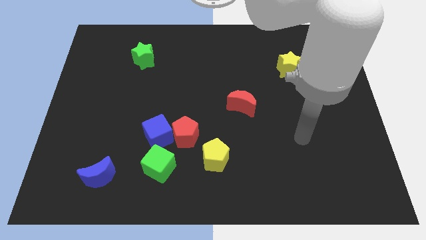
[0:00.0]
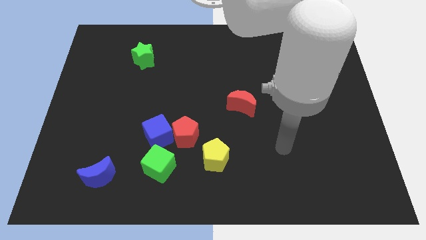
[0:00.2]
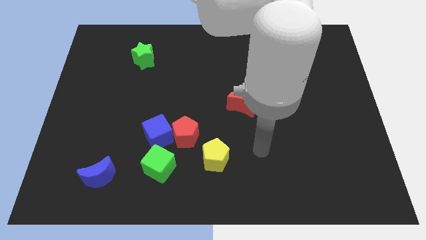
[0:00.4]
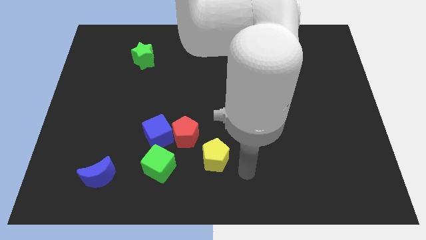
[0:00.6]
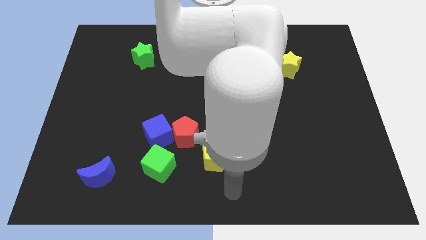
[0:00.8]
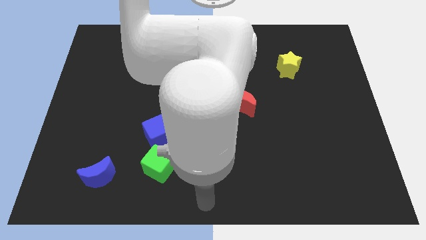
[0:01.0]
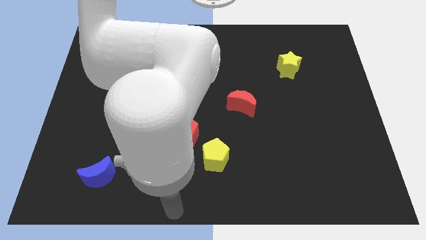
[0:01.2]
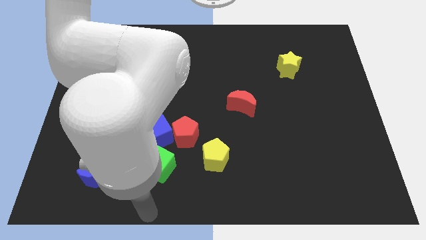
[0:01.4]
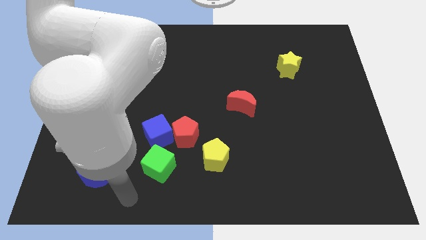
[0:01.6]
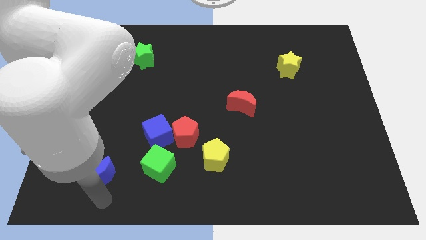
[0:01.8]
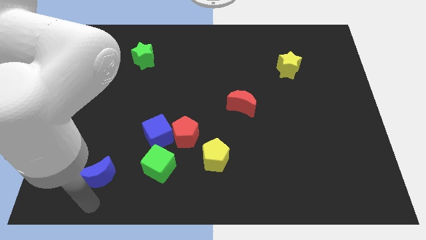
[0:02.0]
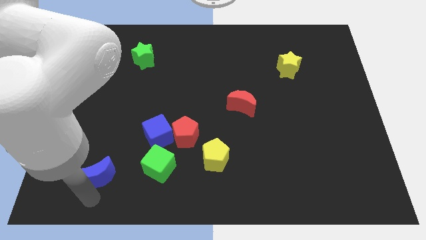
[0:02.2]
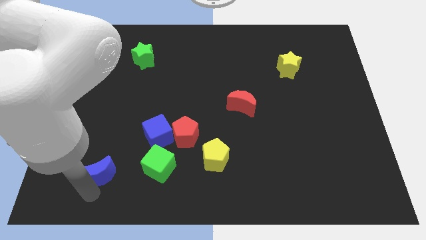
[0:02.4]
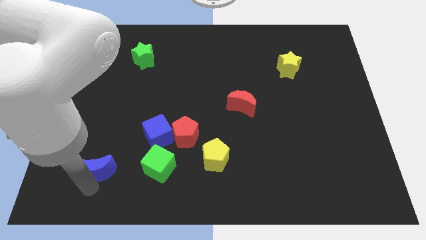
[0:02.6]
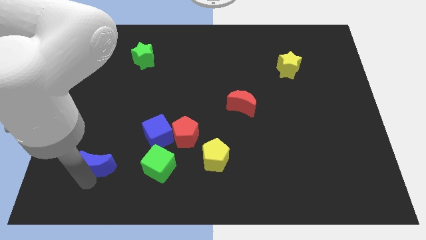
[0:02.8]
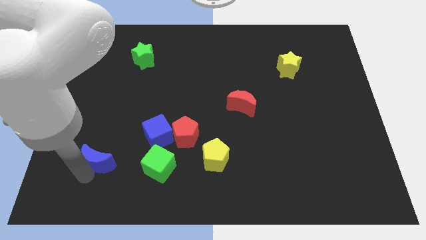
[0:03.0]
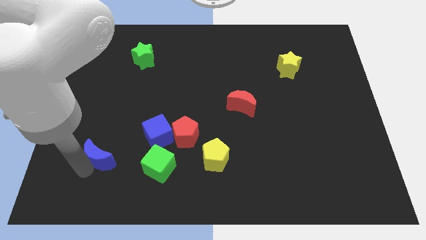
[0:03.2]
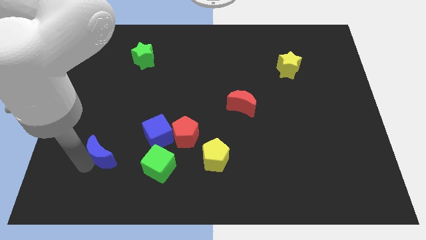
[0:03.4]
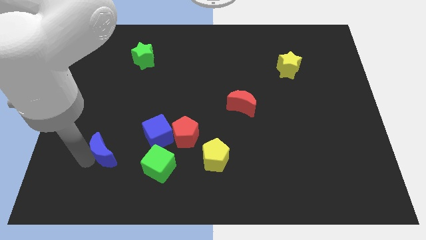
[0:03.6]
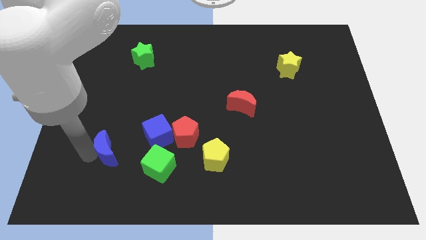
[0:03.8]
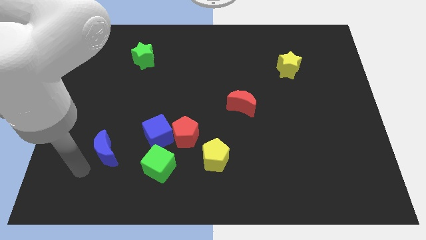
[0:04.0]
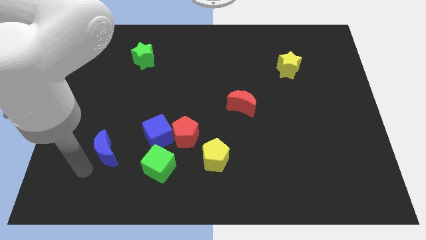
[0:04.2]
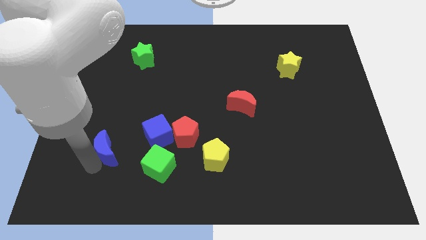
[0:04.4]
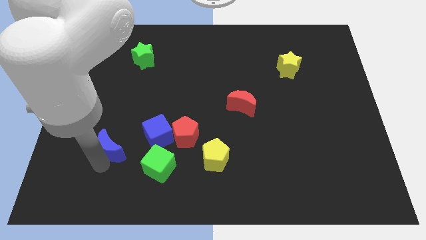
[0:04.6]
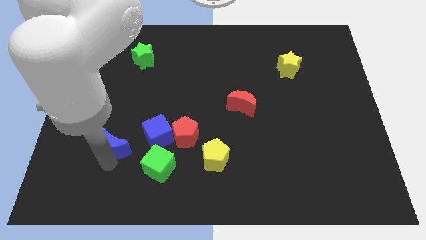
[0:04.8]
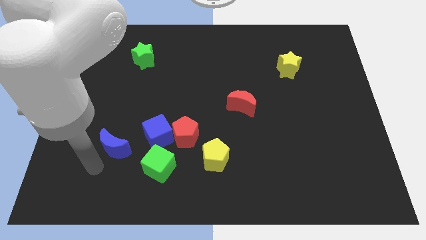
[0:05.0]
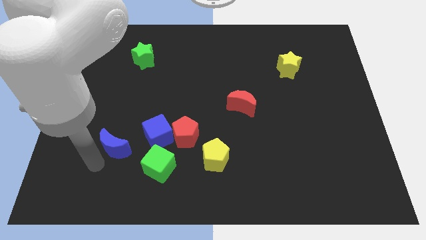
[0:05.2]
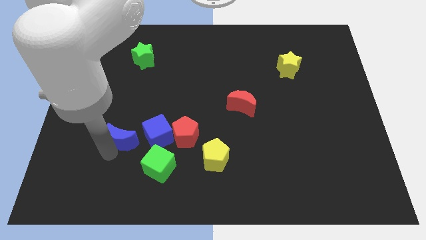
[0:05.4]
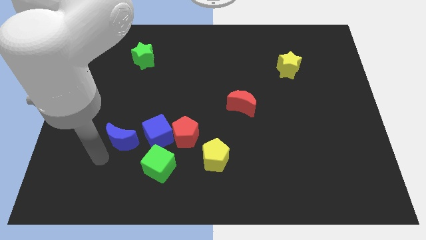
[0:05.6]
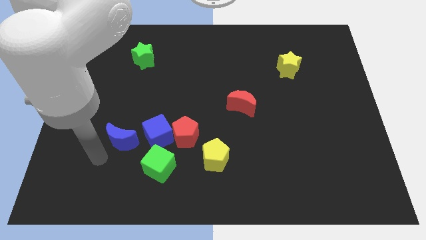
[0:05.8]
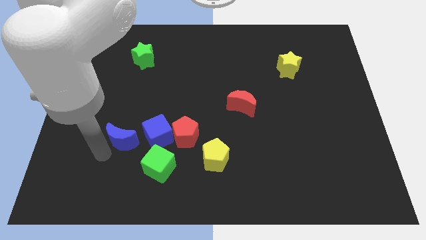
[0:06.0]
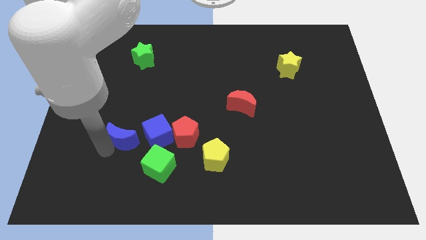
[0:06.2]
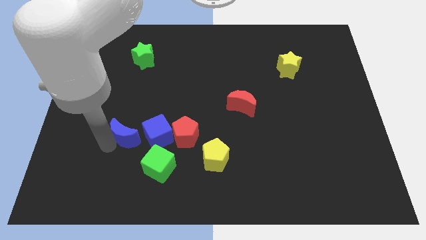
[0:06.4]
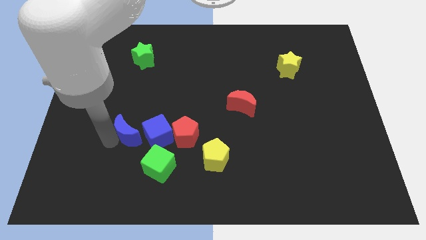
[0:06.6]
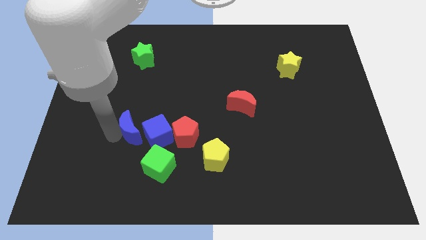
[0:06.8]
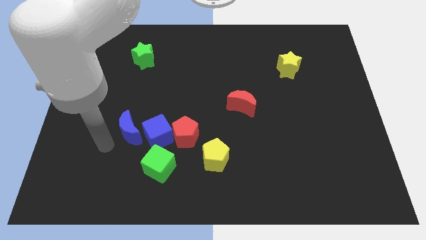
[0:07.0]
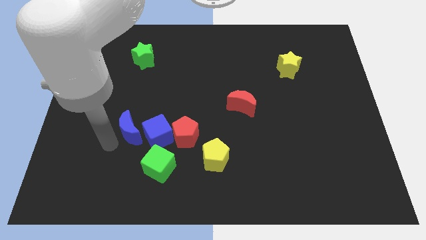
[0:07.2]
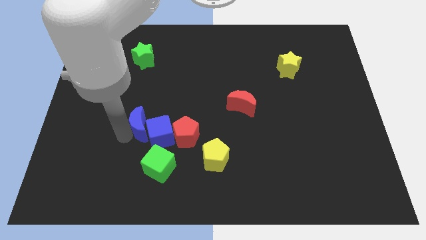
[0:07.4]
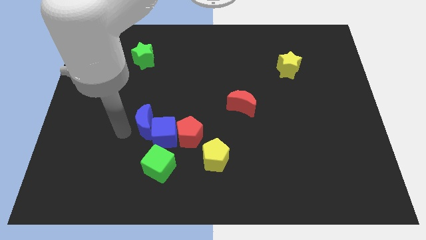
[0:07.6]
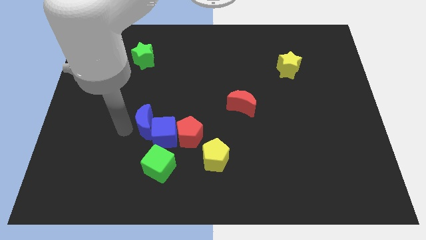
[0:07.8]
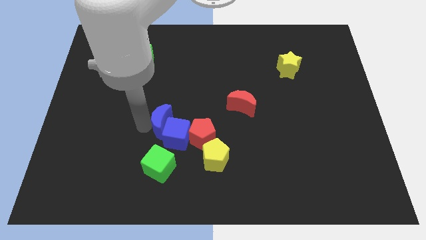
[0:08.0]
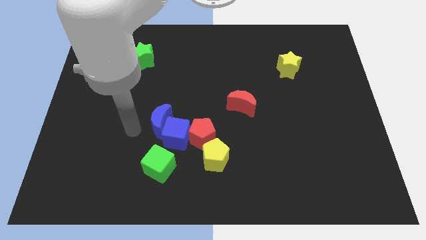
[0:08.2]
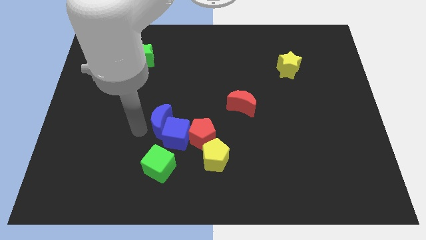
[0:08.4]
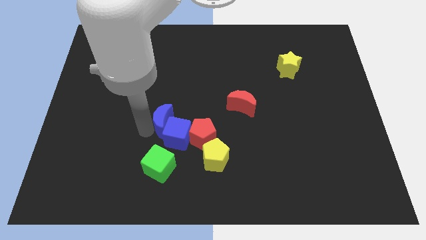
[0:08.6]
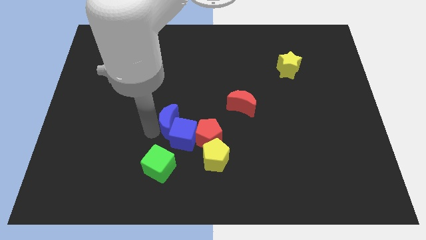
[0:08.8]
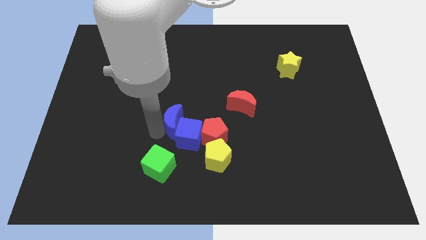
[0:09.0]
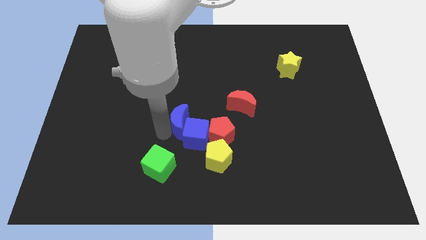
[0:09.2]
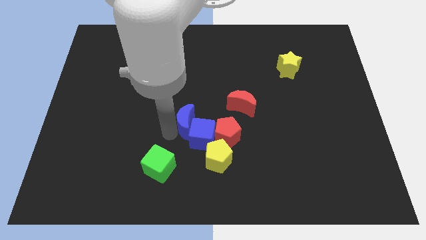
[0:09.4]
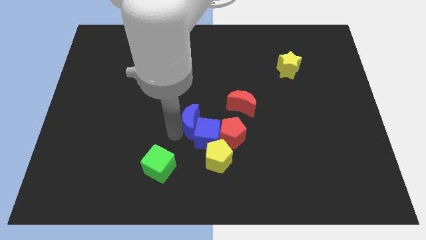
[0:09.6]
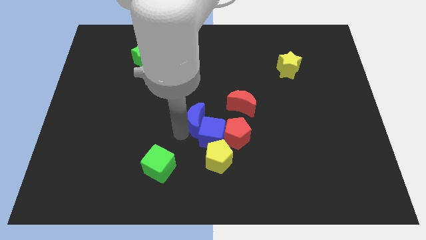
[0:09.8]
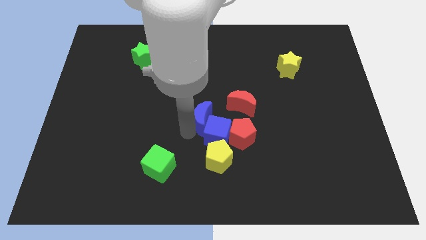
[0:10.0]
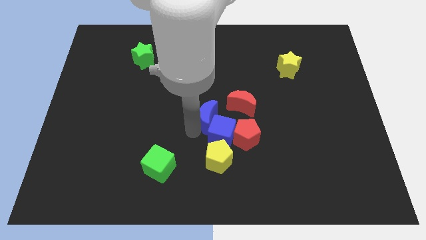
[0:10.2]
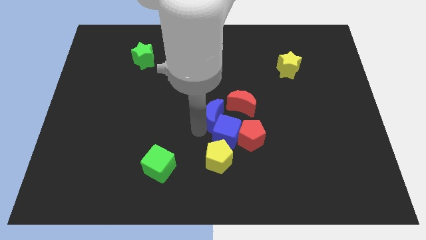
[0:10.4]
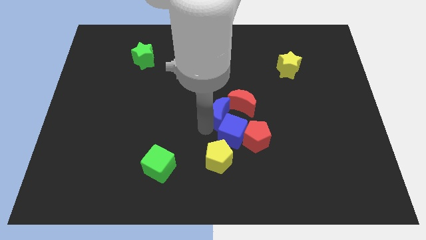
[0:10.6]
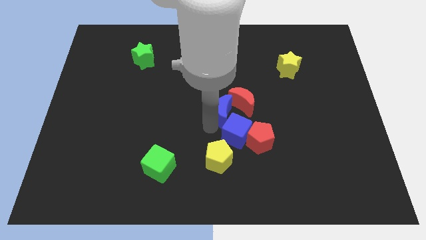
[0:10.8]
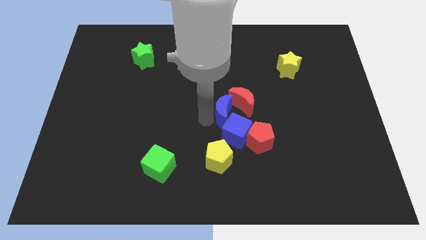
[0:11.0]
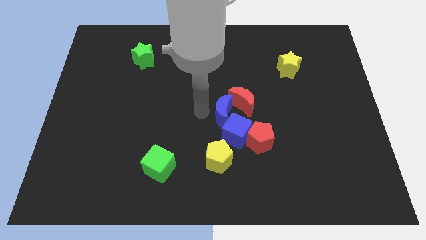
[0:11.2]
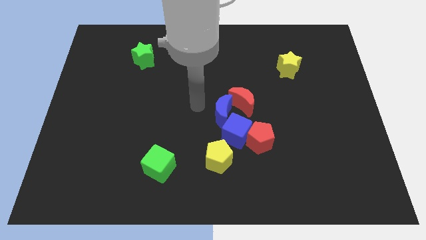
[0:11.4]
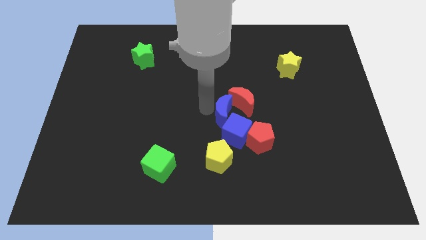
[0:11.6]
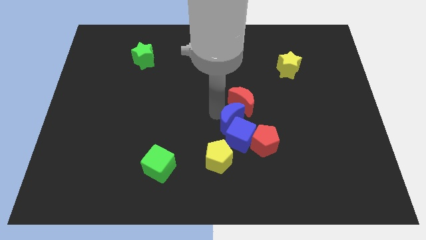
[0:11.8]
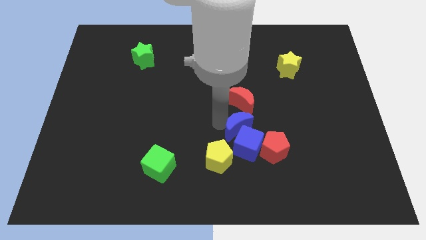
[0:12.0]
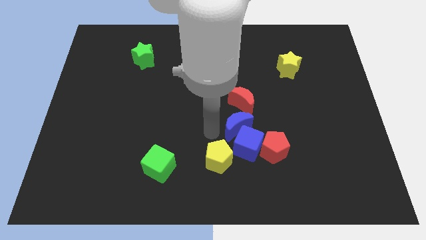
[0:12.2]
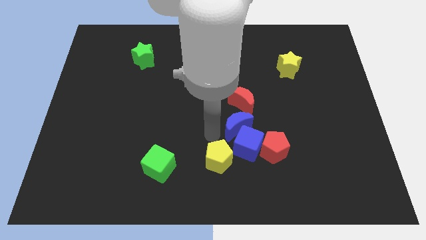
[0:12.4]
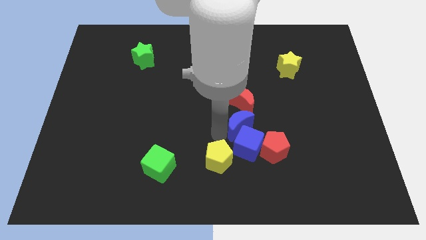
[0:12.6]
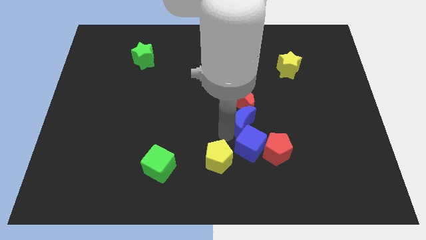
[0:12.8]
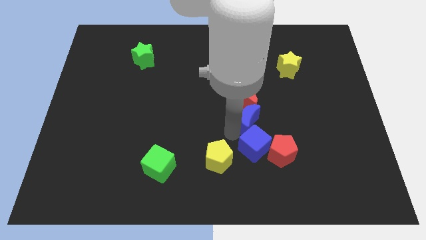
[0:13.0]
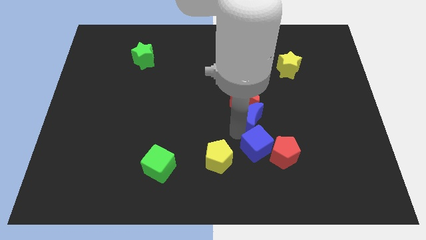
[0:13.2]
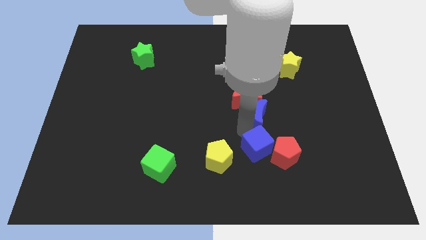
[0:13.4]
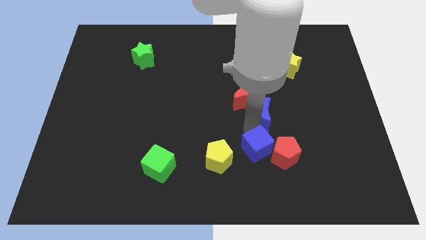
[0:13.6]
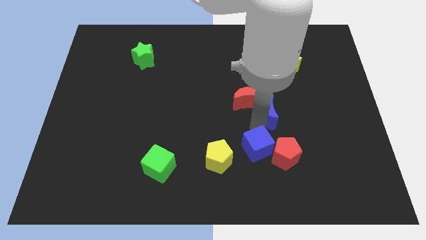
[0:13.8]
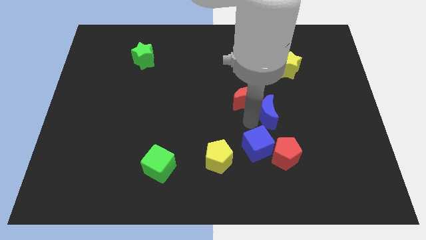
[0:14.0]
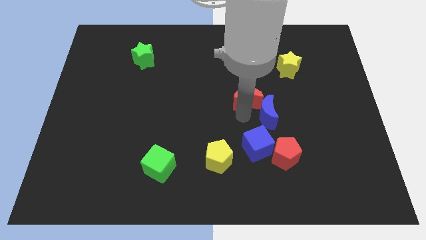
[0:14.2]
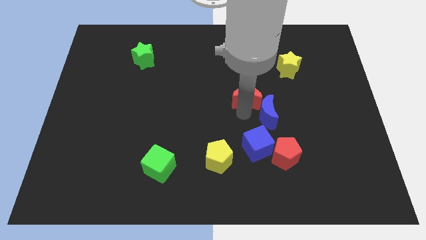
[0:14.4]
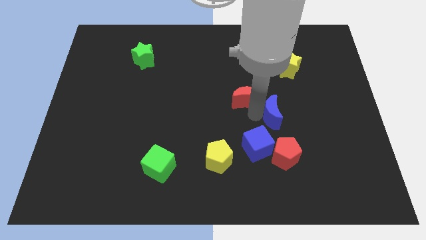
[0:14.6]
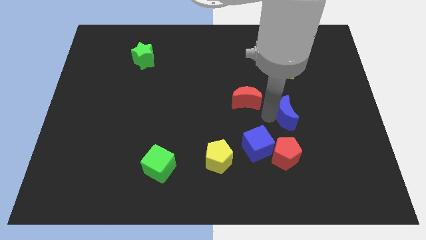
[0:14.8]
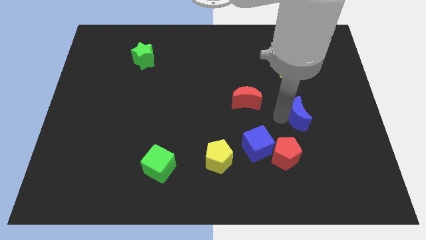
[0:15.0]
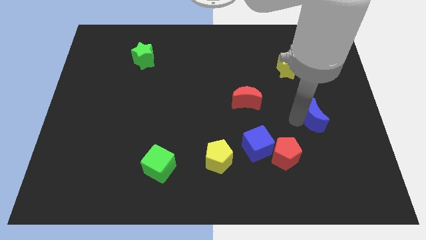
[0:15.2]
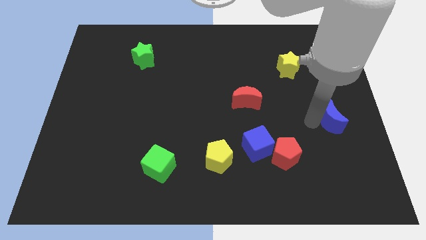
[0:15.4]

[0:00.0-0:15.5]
push the blue moon to the right side of the board
